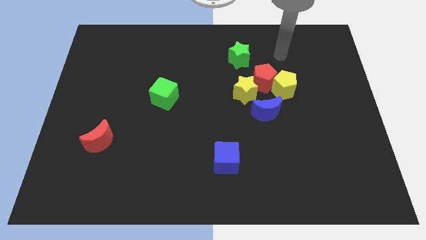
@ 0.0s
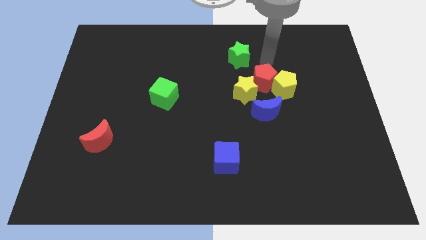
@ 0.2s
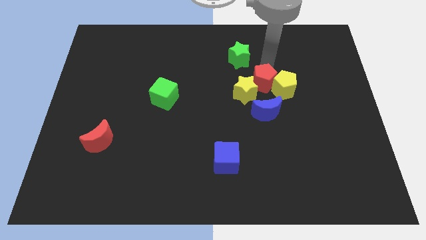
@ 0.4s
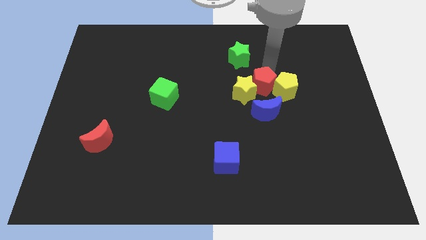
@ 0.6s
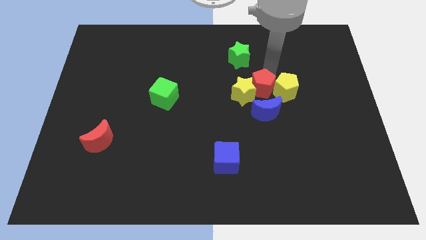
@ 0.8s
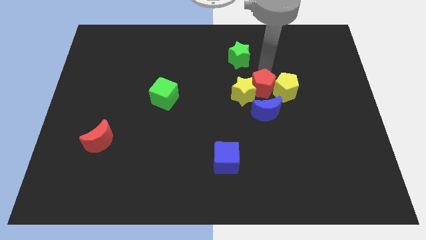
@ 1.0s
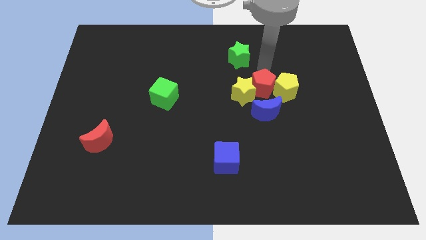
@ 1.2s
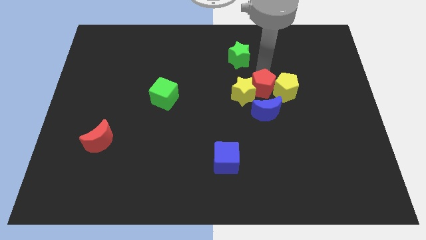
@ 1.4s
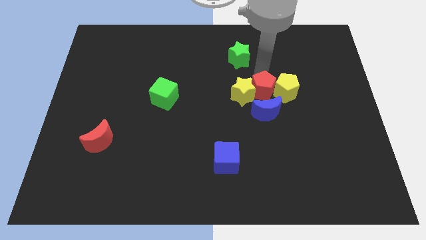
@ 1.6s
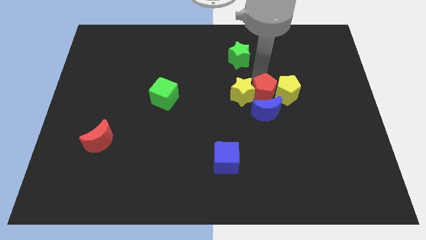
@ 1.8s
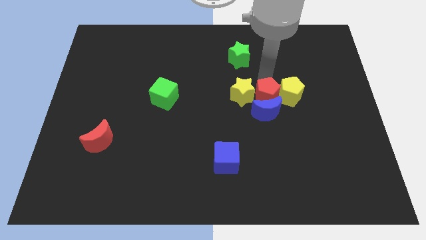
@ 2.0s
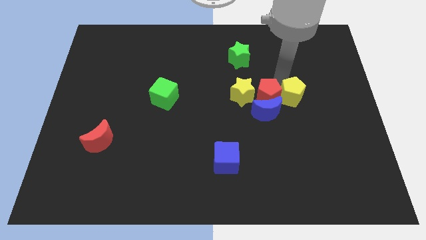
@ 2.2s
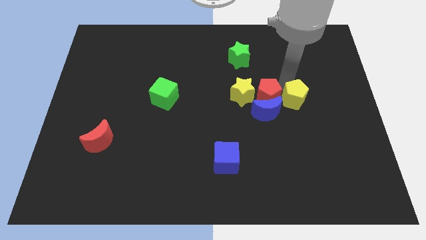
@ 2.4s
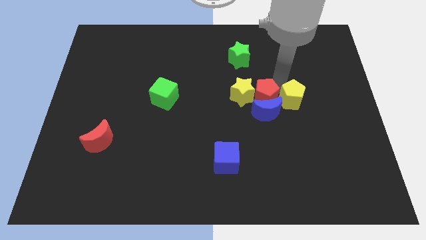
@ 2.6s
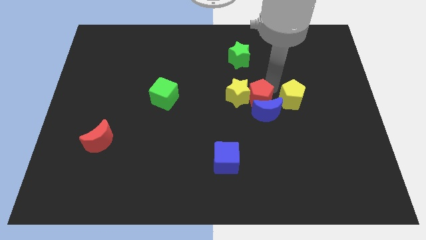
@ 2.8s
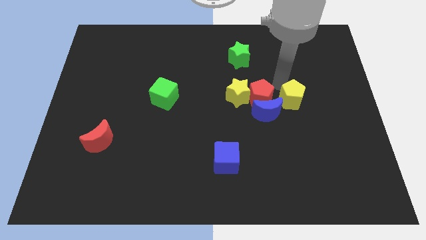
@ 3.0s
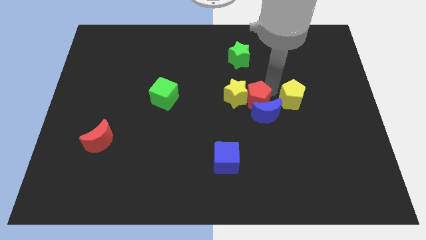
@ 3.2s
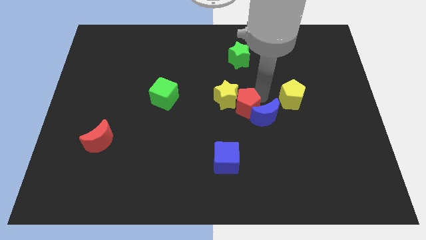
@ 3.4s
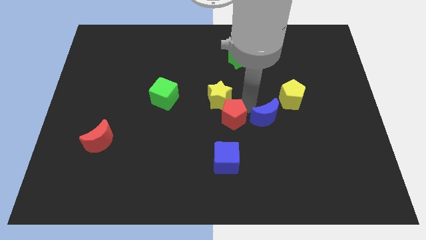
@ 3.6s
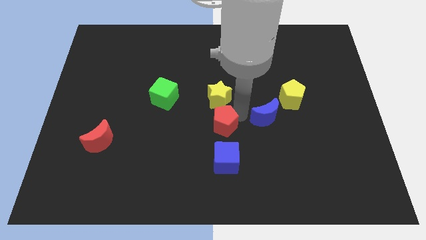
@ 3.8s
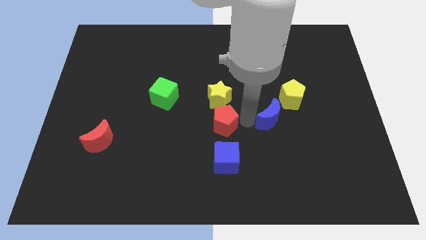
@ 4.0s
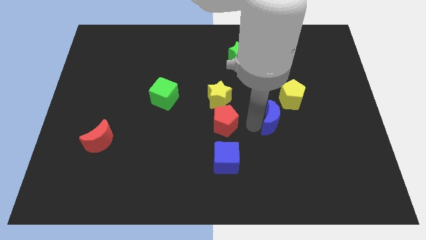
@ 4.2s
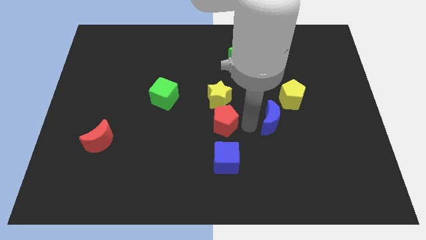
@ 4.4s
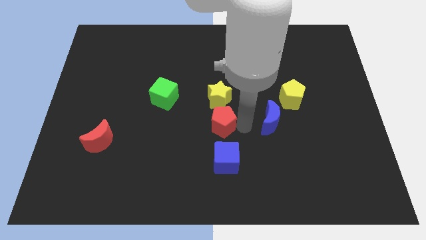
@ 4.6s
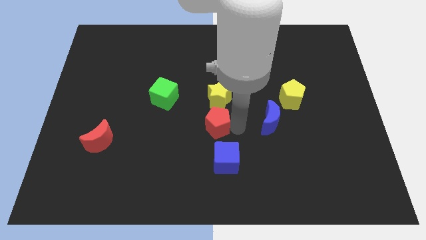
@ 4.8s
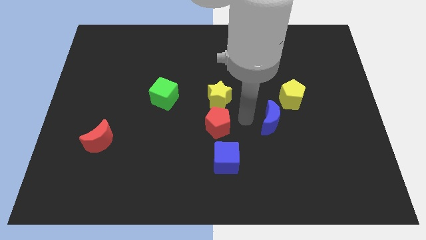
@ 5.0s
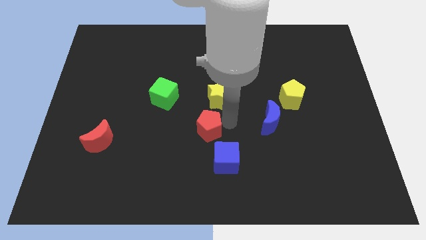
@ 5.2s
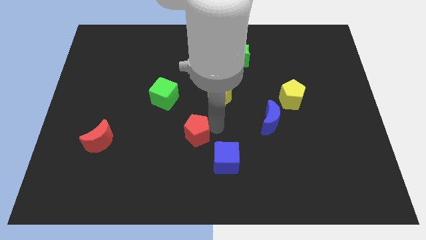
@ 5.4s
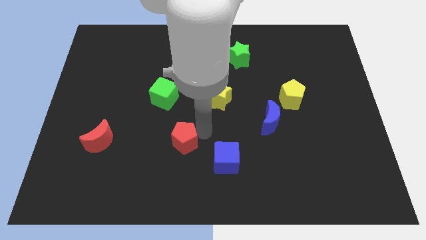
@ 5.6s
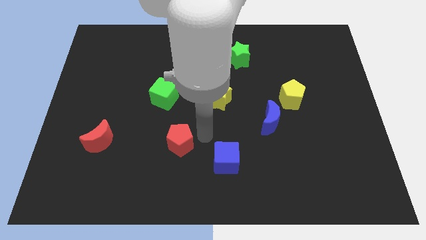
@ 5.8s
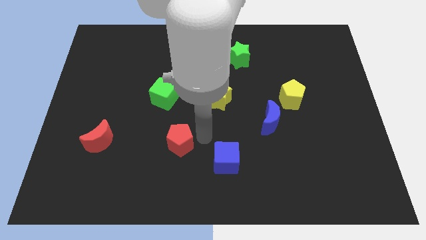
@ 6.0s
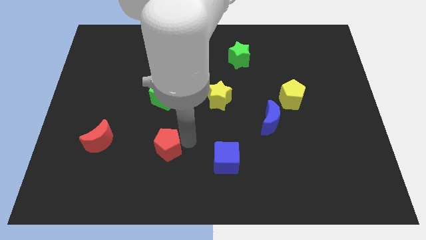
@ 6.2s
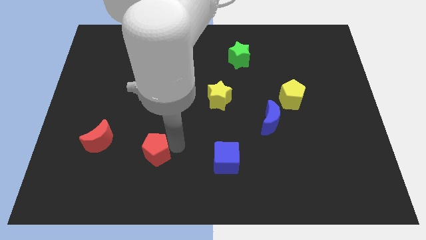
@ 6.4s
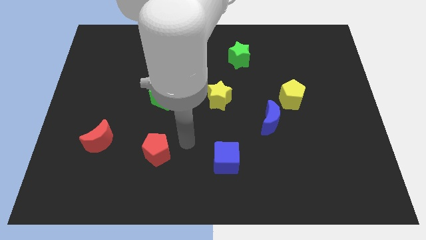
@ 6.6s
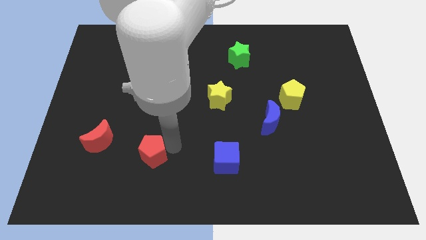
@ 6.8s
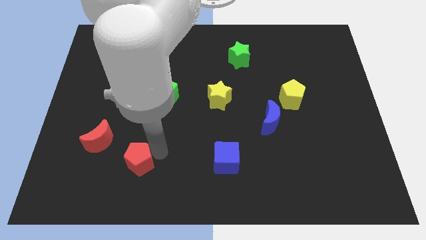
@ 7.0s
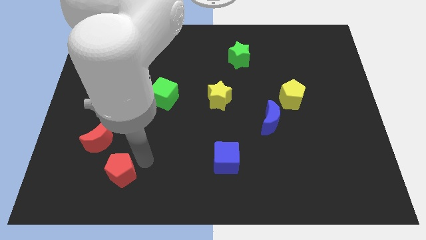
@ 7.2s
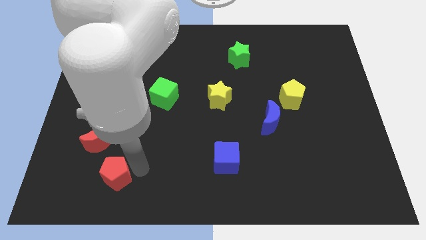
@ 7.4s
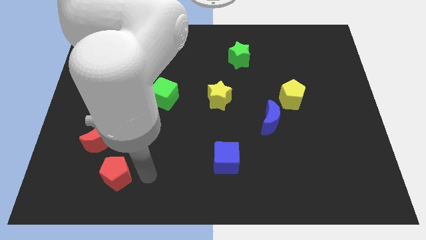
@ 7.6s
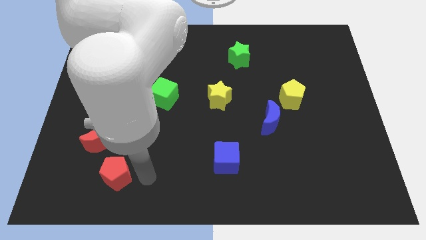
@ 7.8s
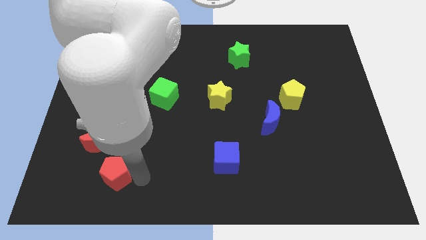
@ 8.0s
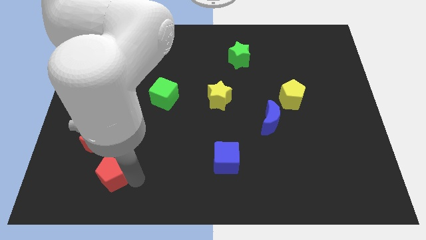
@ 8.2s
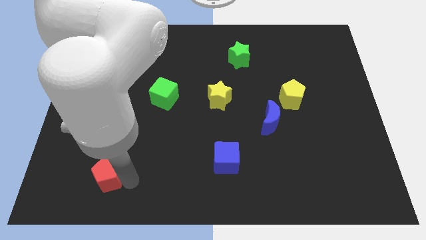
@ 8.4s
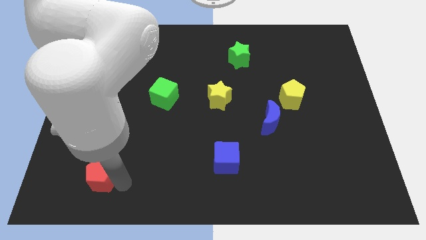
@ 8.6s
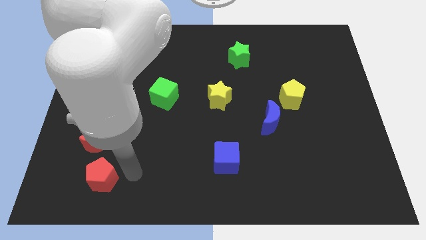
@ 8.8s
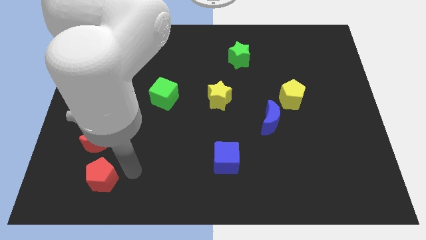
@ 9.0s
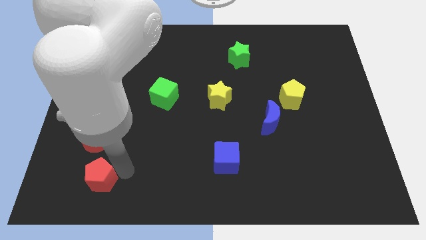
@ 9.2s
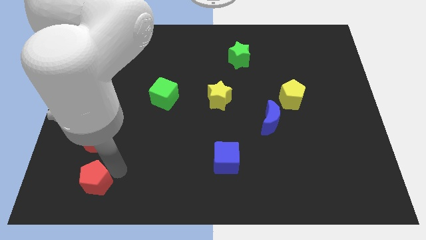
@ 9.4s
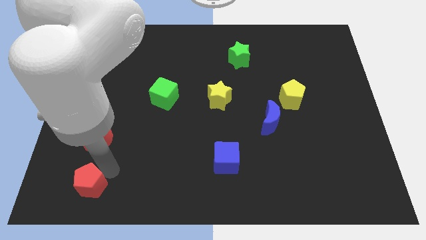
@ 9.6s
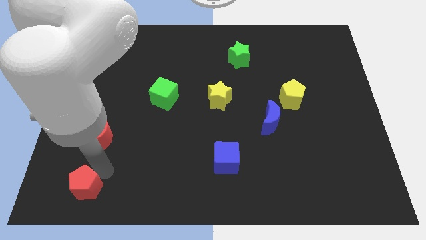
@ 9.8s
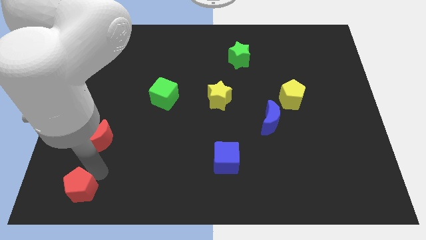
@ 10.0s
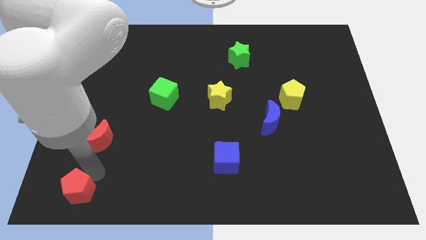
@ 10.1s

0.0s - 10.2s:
slide the red pentagon to the bottom left of the board

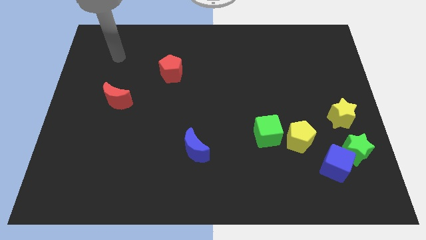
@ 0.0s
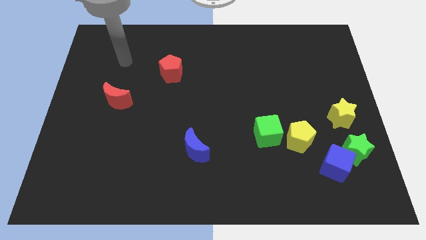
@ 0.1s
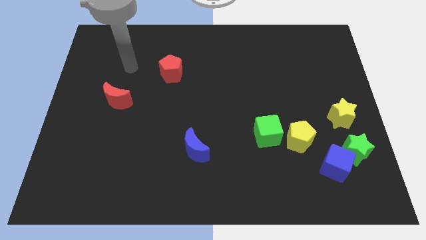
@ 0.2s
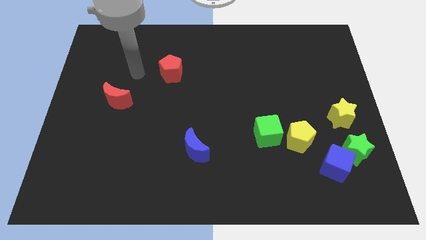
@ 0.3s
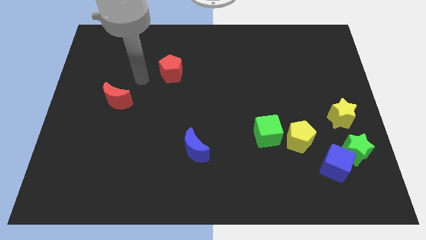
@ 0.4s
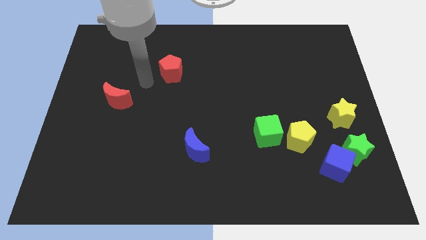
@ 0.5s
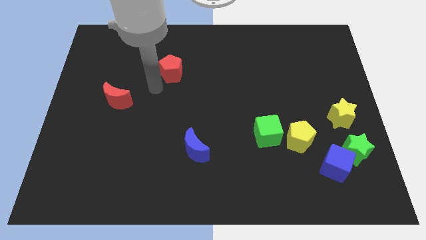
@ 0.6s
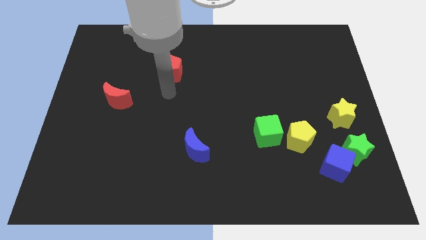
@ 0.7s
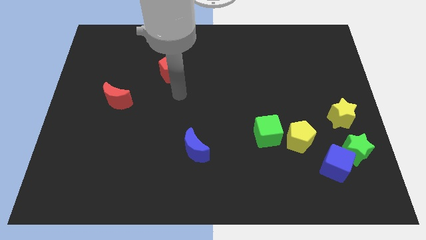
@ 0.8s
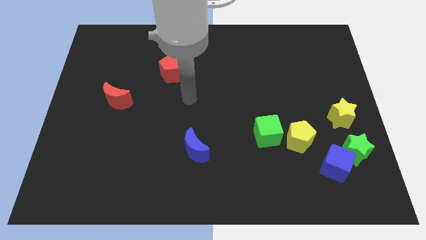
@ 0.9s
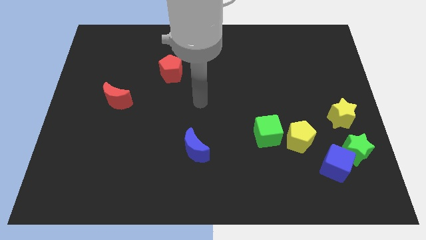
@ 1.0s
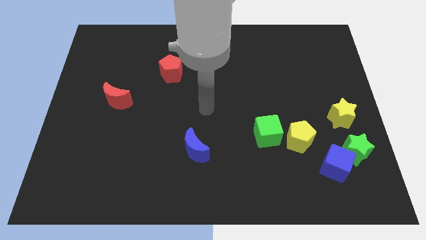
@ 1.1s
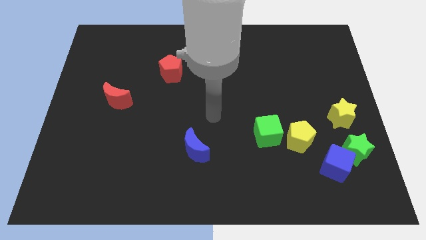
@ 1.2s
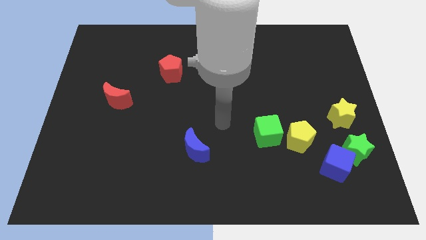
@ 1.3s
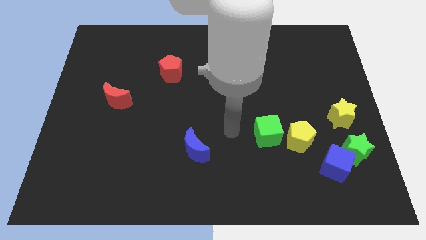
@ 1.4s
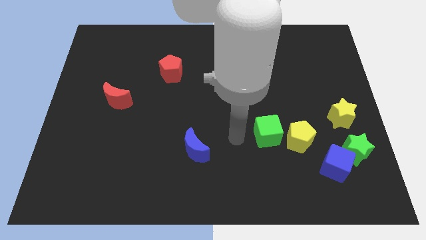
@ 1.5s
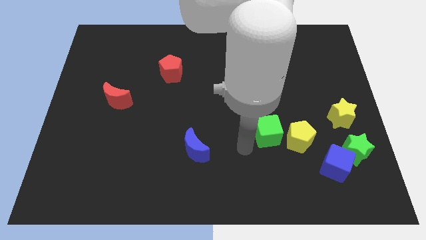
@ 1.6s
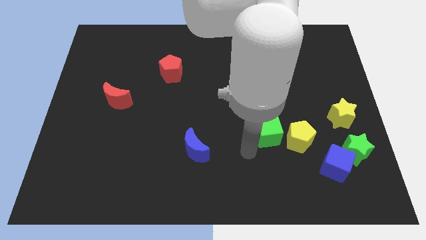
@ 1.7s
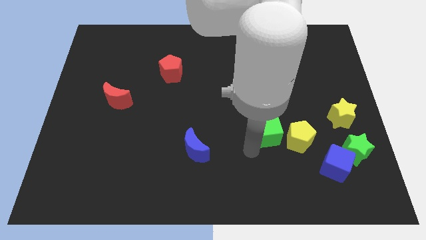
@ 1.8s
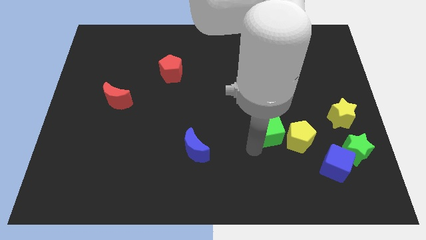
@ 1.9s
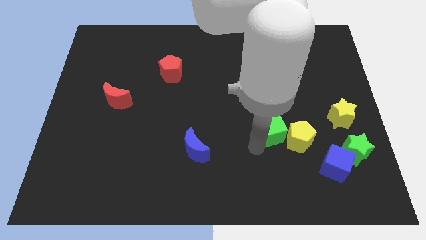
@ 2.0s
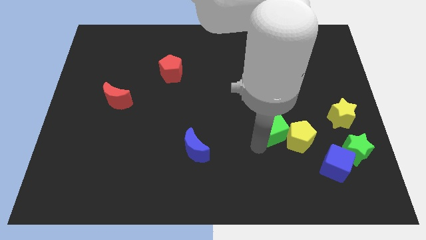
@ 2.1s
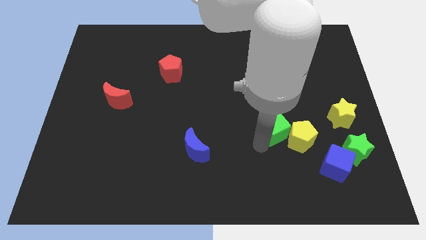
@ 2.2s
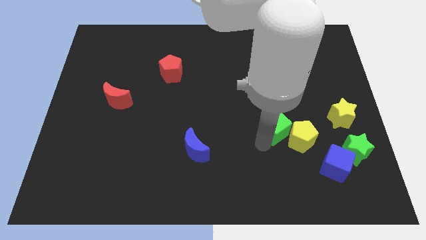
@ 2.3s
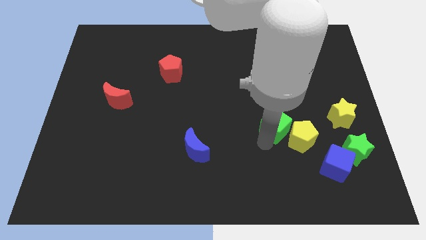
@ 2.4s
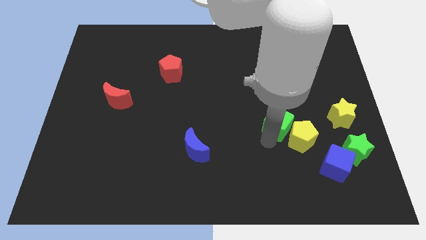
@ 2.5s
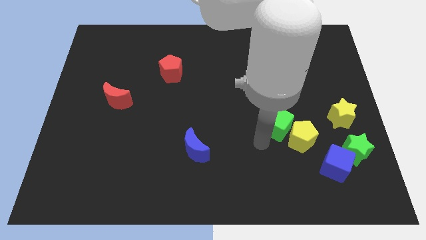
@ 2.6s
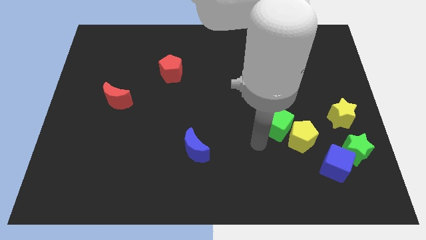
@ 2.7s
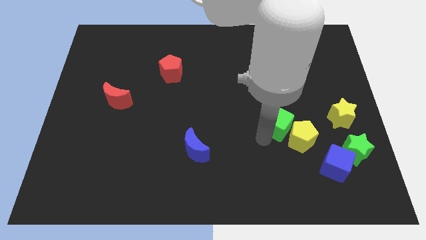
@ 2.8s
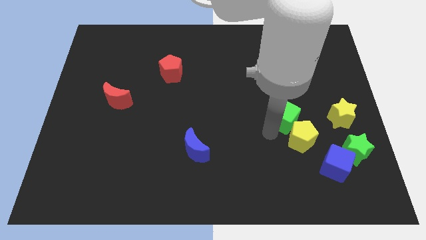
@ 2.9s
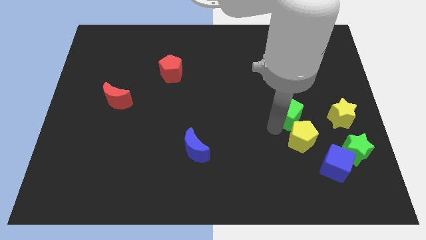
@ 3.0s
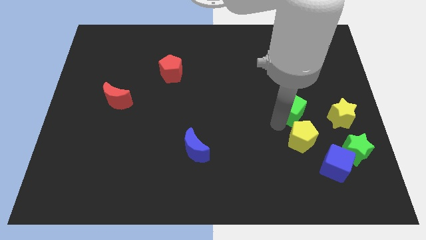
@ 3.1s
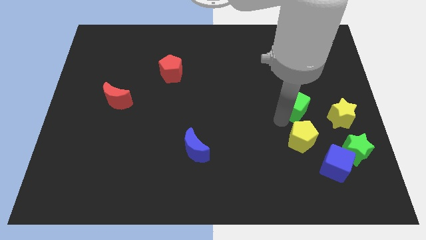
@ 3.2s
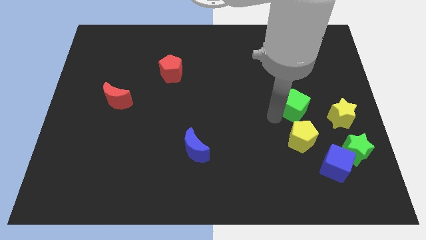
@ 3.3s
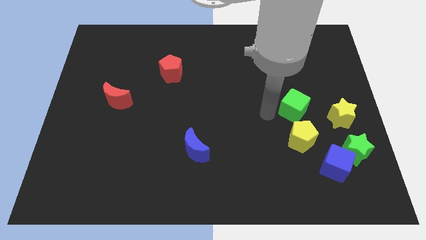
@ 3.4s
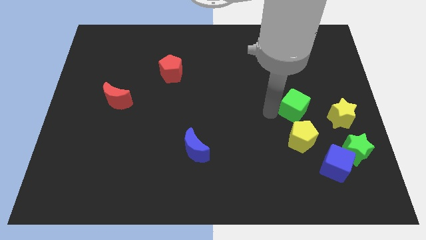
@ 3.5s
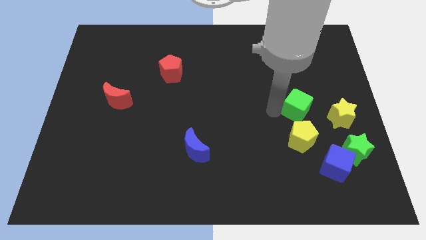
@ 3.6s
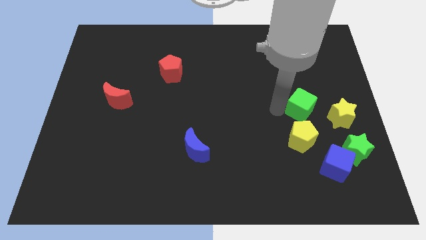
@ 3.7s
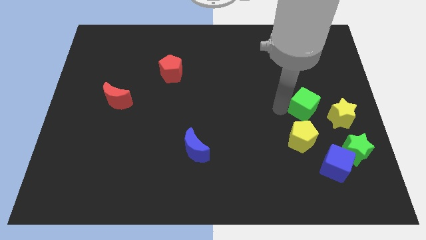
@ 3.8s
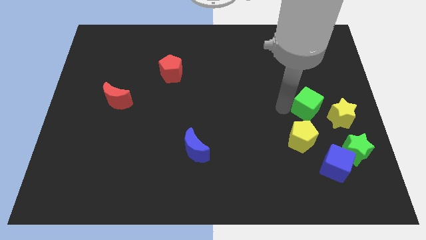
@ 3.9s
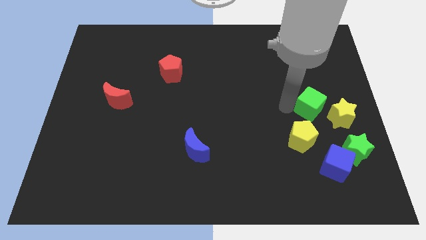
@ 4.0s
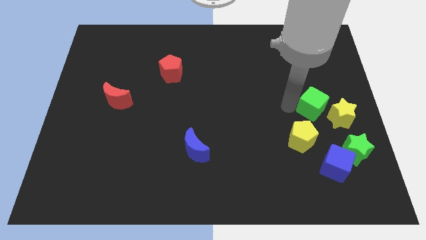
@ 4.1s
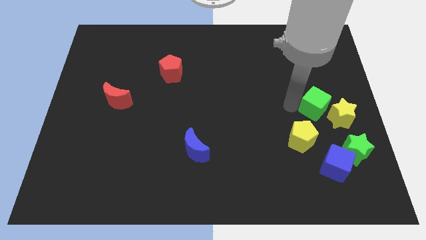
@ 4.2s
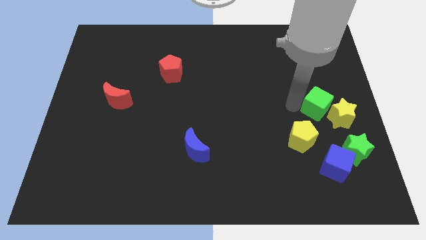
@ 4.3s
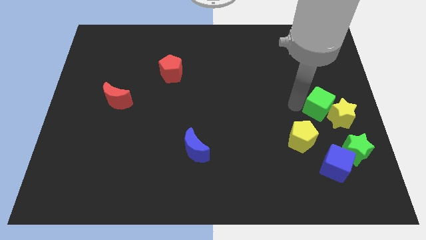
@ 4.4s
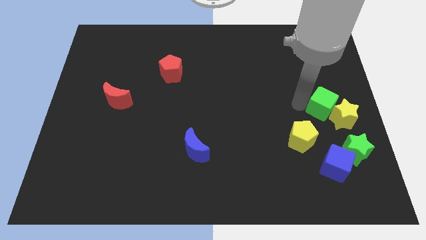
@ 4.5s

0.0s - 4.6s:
push the green cube to the center right
